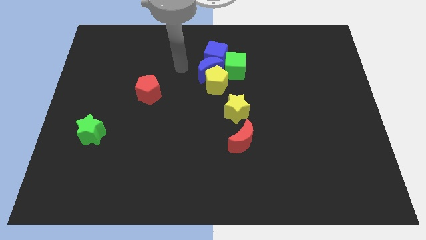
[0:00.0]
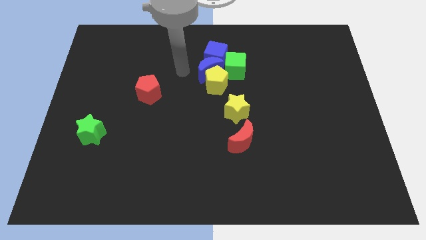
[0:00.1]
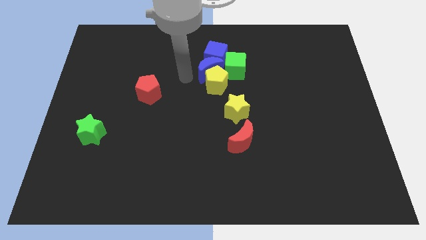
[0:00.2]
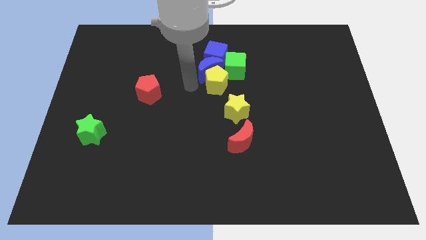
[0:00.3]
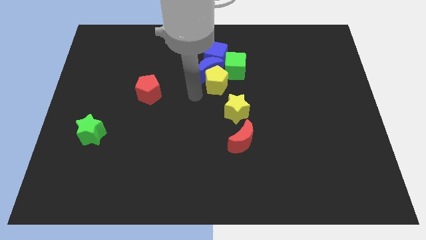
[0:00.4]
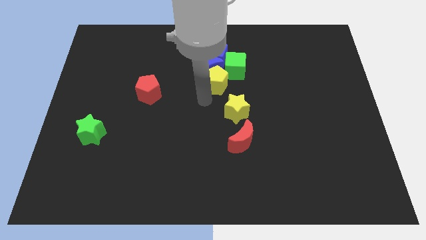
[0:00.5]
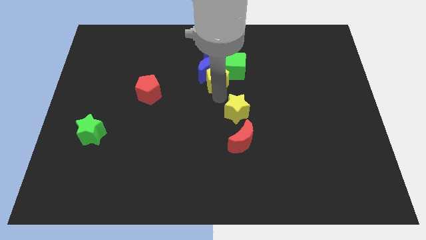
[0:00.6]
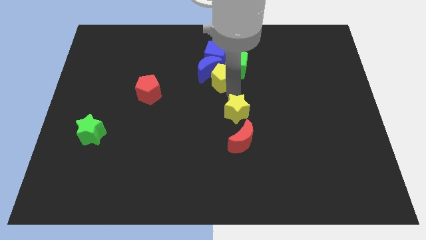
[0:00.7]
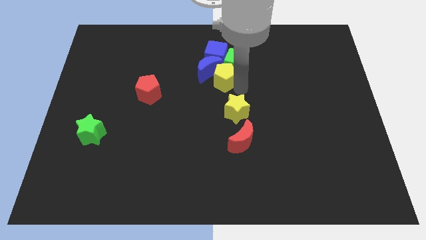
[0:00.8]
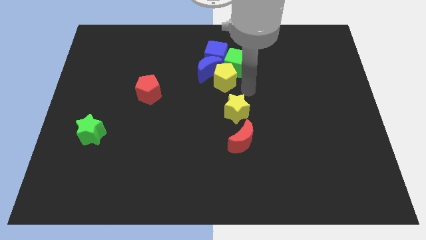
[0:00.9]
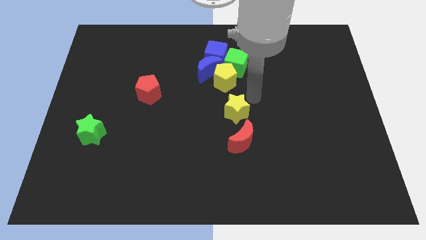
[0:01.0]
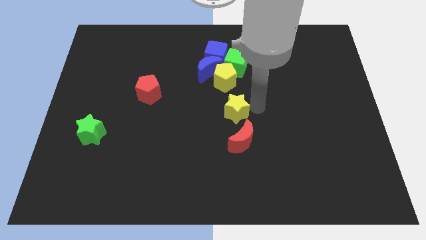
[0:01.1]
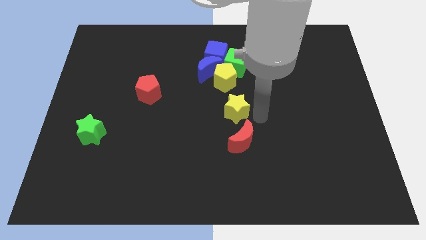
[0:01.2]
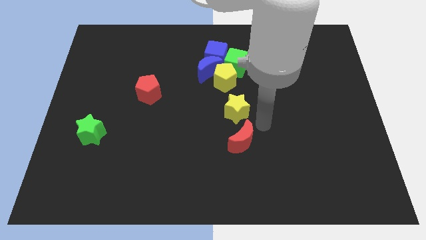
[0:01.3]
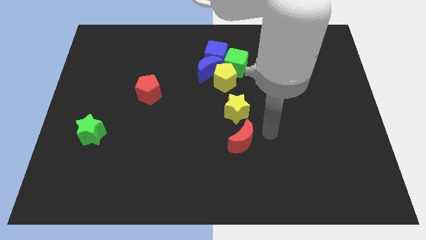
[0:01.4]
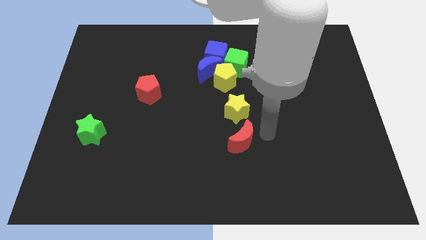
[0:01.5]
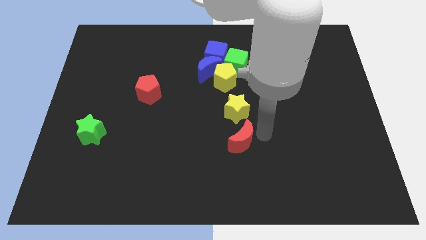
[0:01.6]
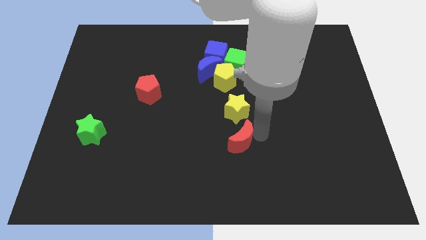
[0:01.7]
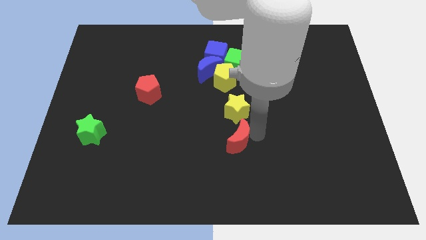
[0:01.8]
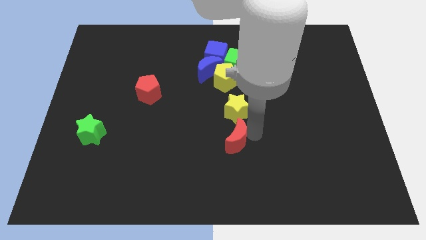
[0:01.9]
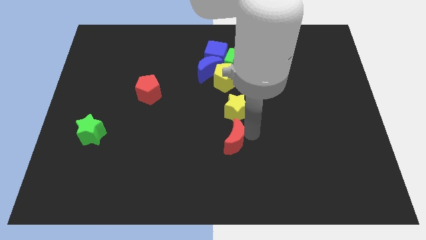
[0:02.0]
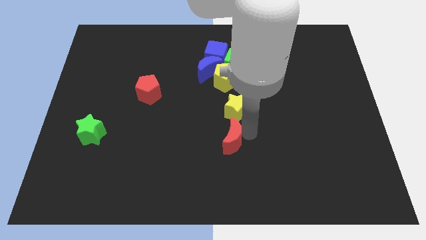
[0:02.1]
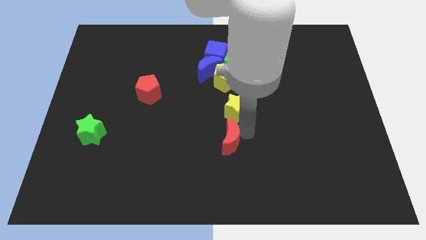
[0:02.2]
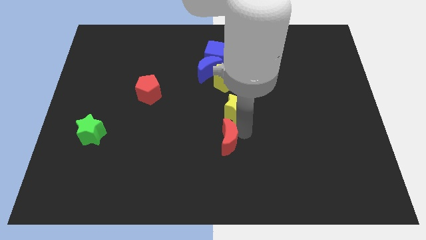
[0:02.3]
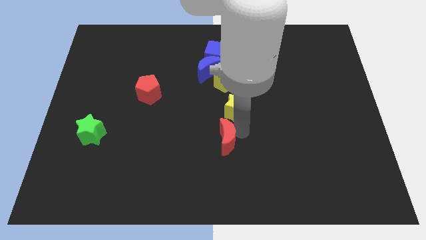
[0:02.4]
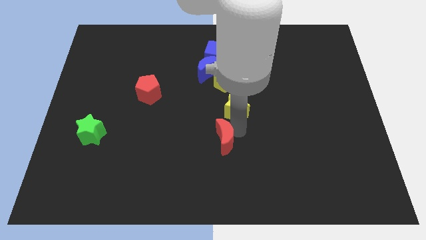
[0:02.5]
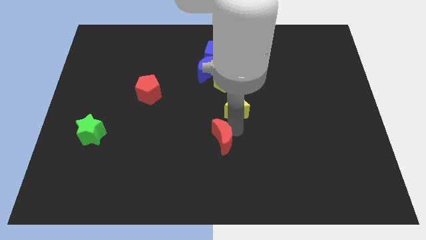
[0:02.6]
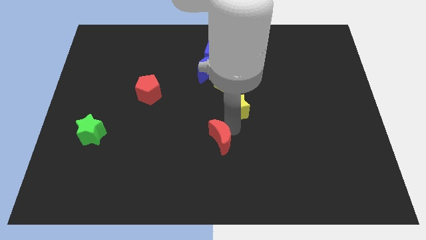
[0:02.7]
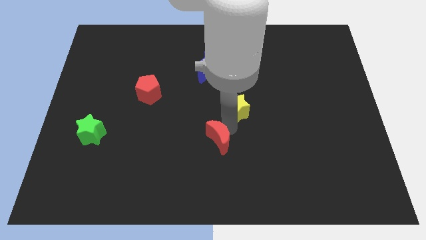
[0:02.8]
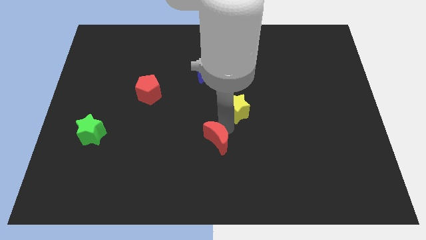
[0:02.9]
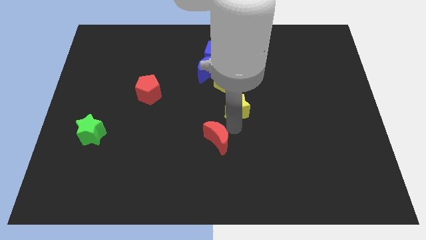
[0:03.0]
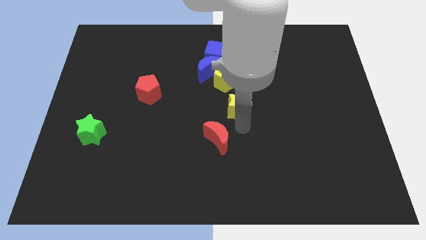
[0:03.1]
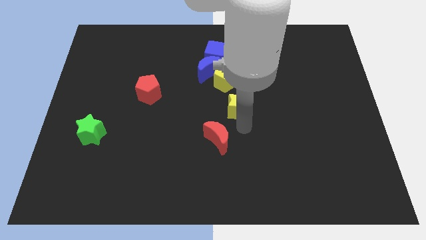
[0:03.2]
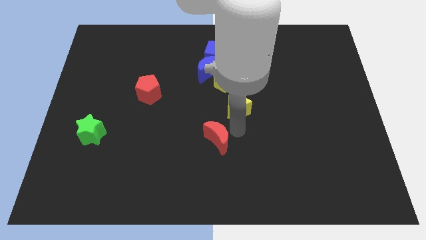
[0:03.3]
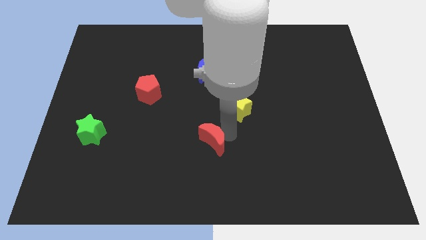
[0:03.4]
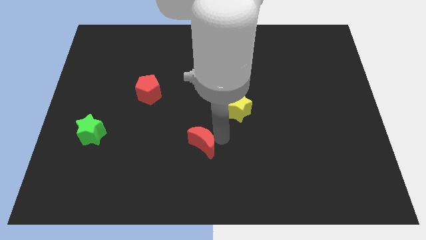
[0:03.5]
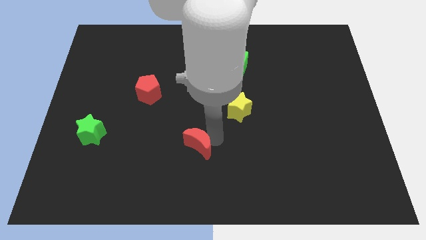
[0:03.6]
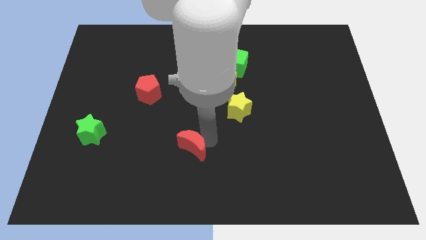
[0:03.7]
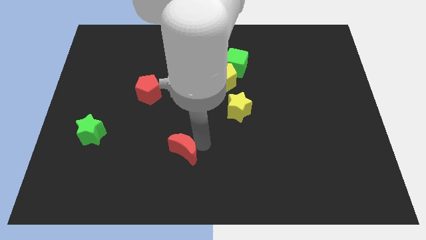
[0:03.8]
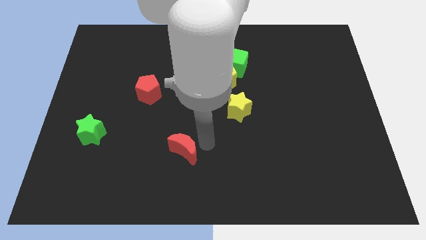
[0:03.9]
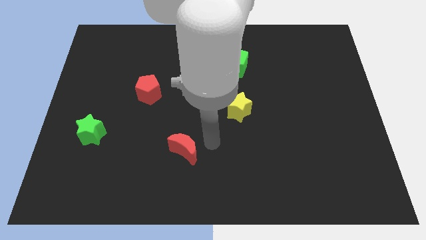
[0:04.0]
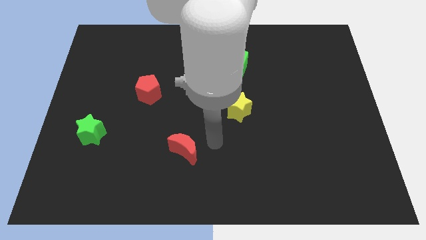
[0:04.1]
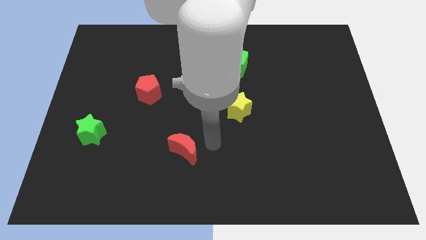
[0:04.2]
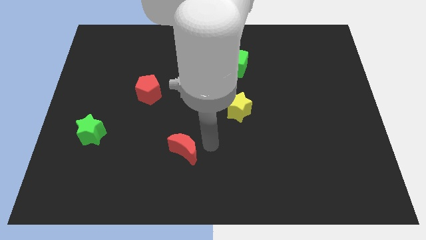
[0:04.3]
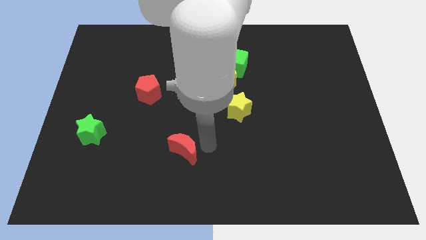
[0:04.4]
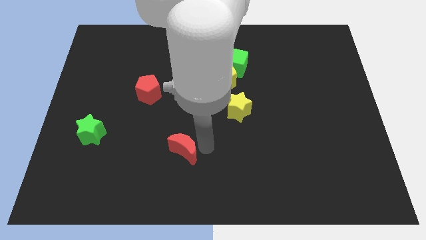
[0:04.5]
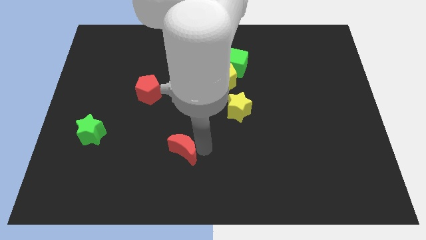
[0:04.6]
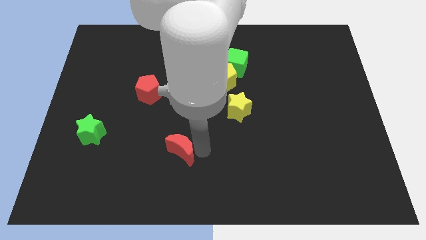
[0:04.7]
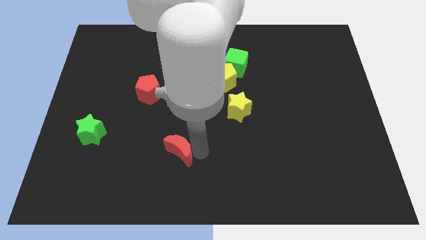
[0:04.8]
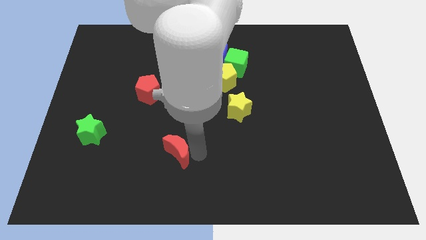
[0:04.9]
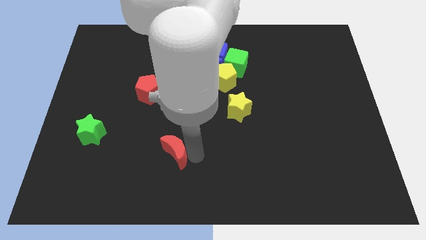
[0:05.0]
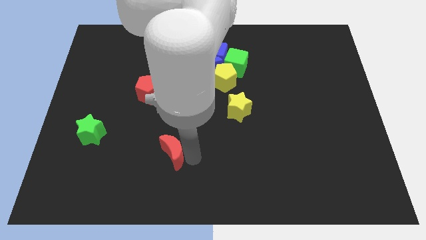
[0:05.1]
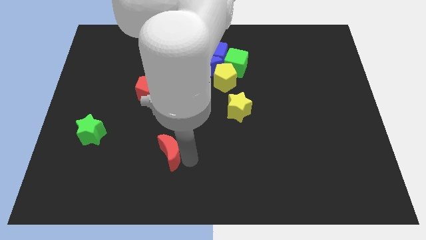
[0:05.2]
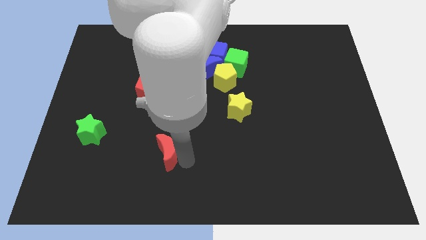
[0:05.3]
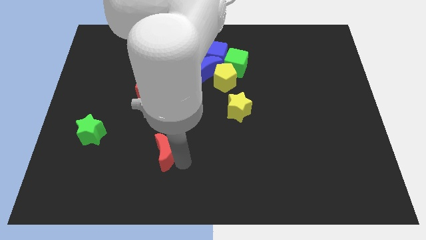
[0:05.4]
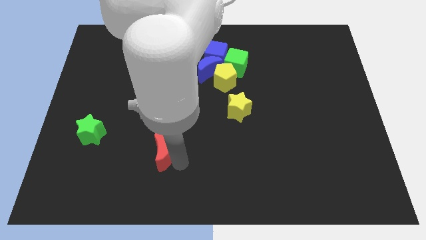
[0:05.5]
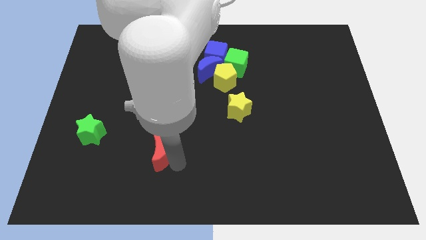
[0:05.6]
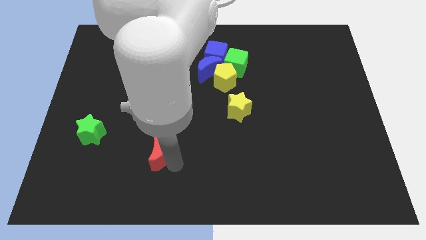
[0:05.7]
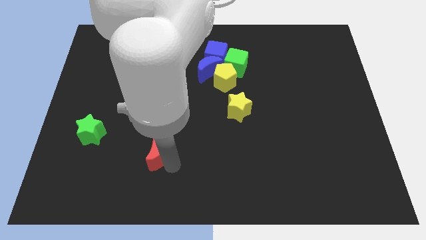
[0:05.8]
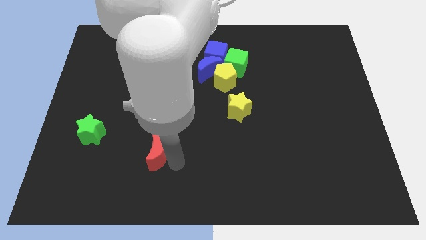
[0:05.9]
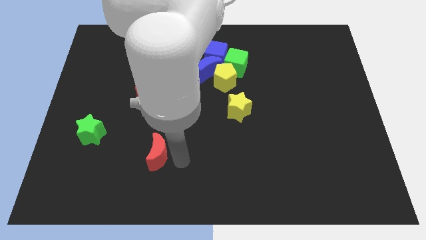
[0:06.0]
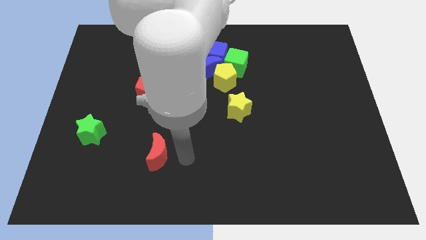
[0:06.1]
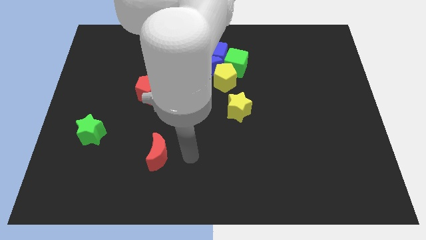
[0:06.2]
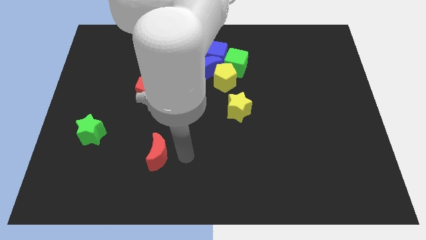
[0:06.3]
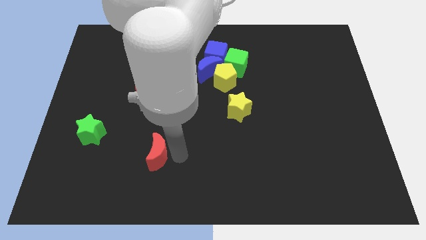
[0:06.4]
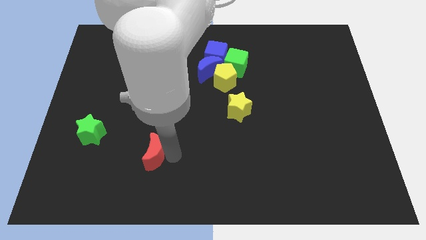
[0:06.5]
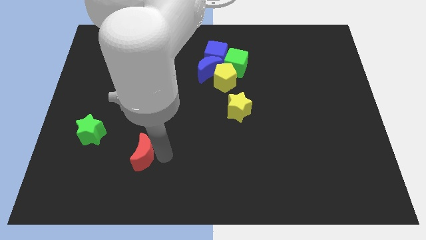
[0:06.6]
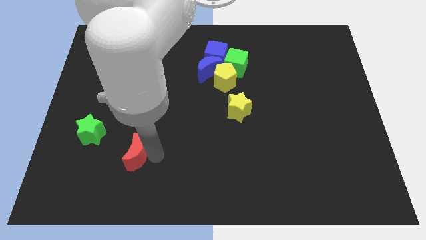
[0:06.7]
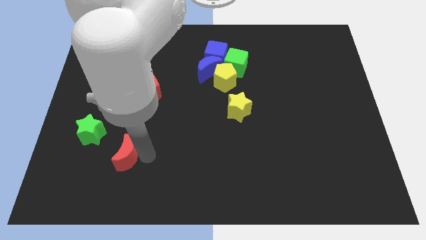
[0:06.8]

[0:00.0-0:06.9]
slide the red moon to the bottom right of the green star
